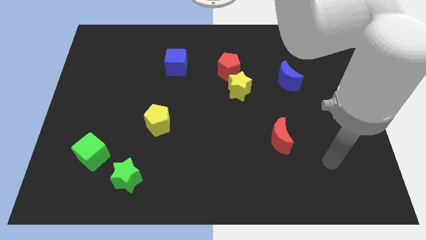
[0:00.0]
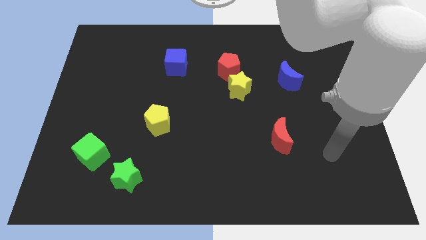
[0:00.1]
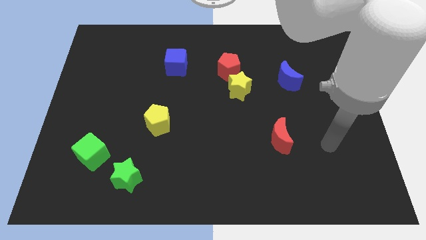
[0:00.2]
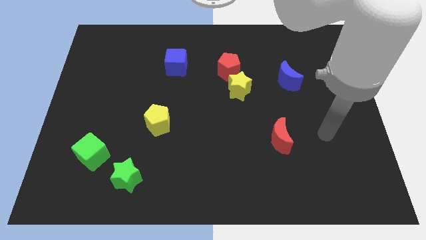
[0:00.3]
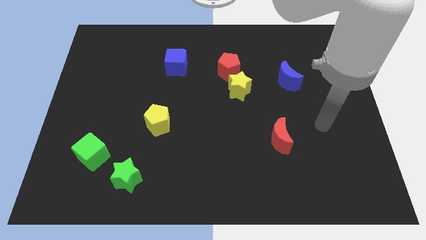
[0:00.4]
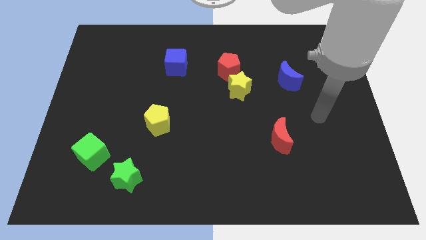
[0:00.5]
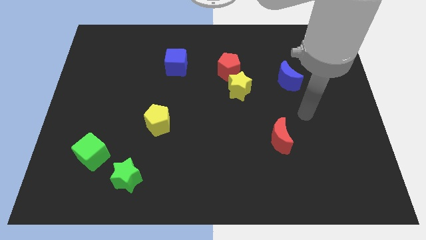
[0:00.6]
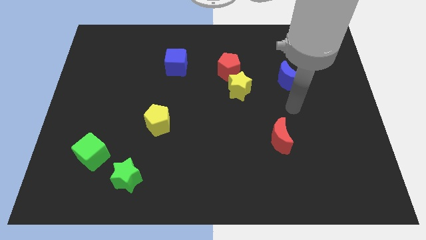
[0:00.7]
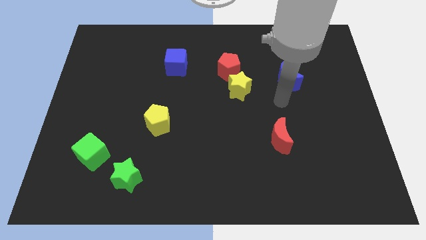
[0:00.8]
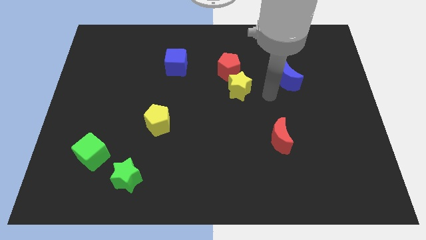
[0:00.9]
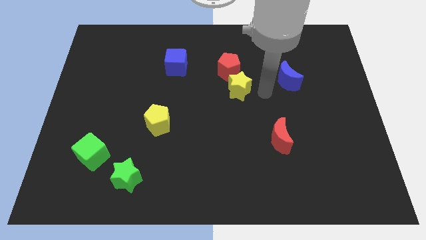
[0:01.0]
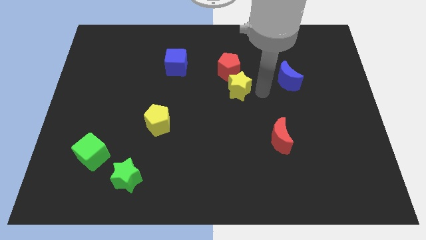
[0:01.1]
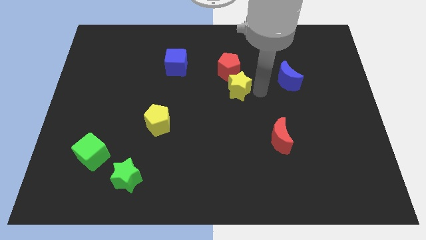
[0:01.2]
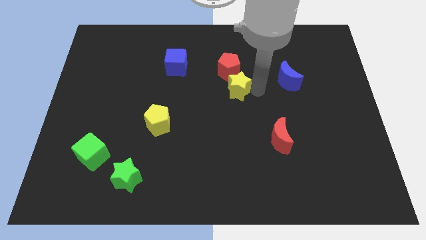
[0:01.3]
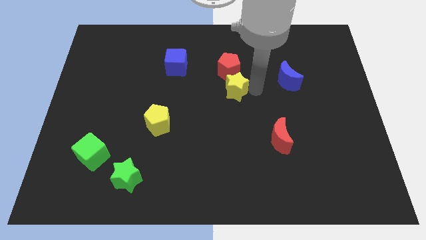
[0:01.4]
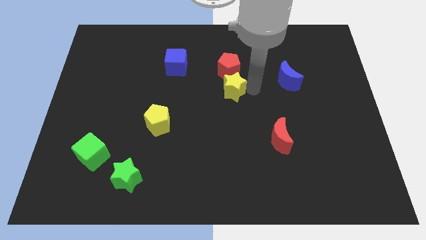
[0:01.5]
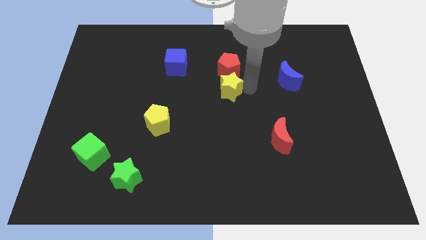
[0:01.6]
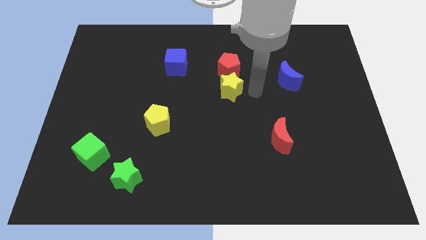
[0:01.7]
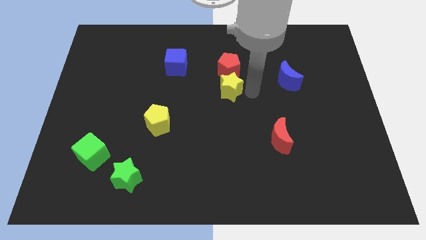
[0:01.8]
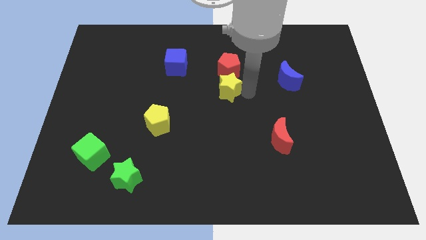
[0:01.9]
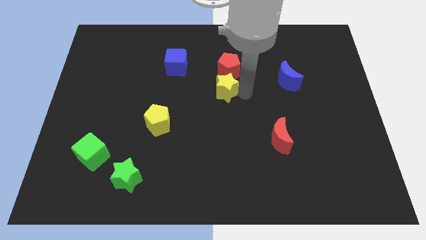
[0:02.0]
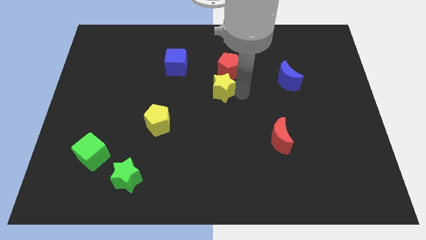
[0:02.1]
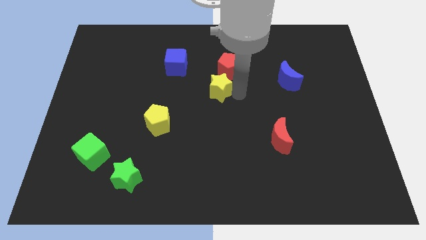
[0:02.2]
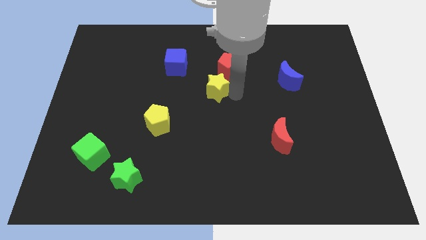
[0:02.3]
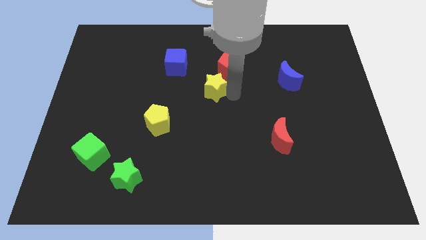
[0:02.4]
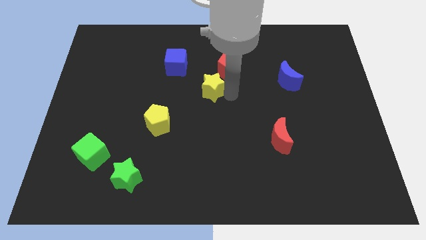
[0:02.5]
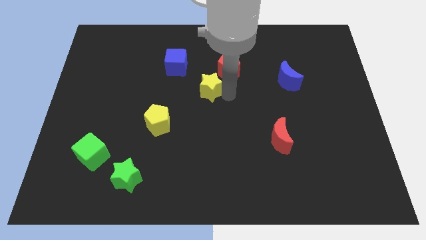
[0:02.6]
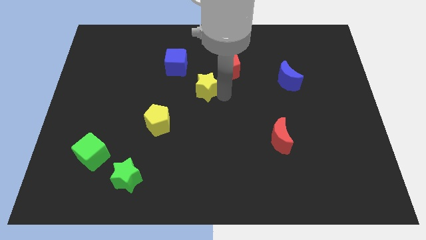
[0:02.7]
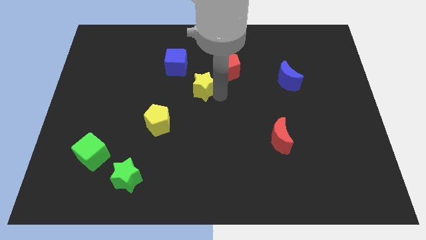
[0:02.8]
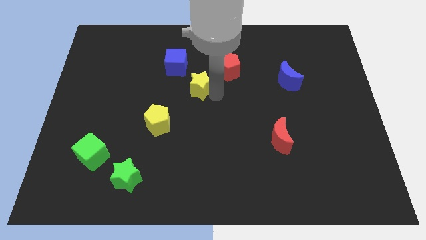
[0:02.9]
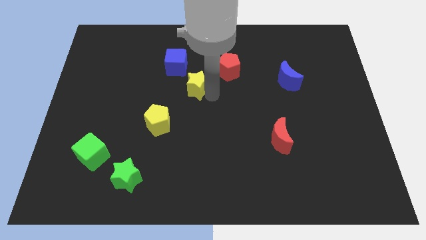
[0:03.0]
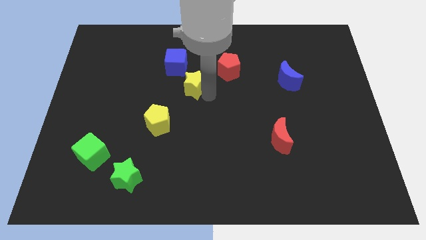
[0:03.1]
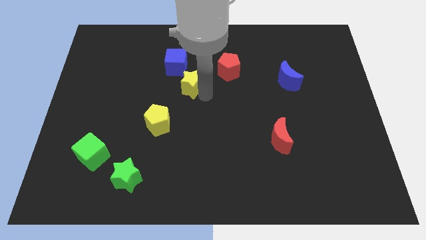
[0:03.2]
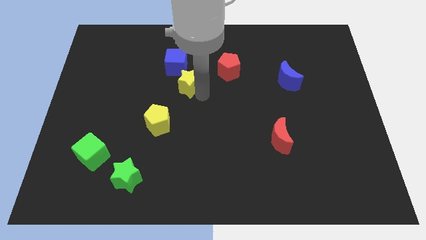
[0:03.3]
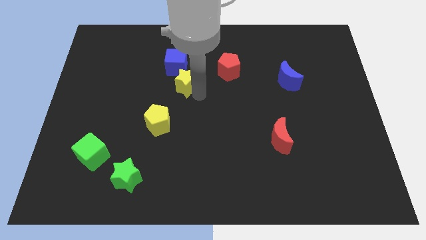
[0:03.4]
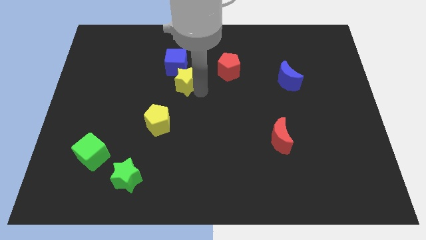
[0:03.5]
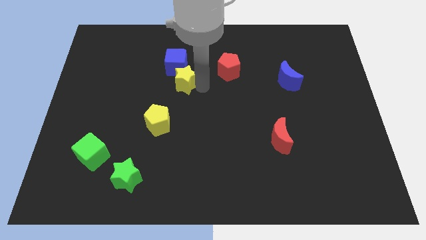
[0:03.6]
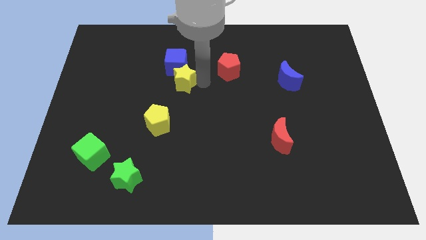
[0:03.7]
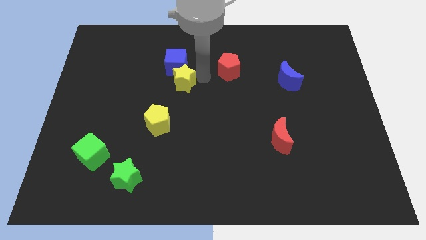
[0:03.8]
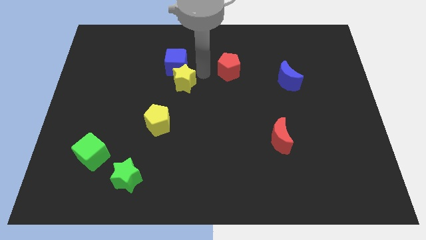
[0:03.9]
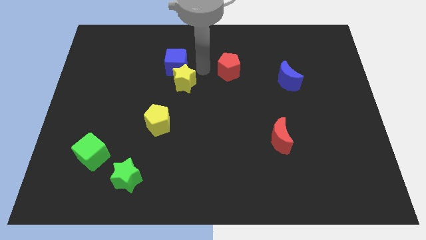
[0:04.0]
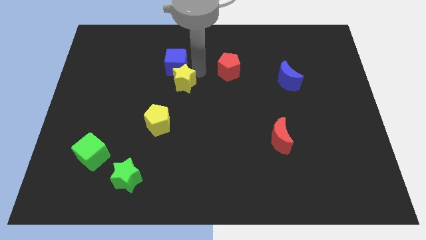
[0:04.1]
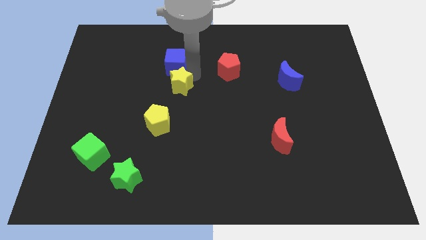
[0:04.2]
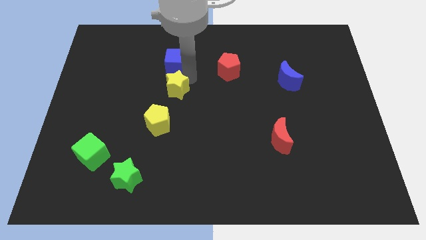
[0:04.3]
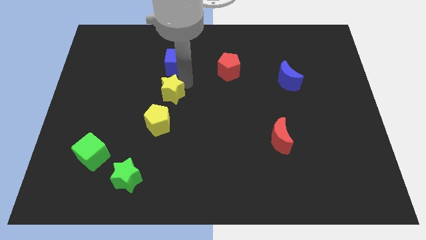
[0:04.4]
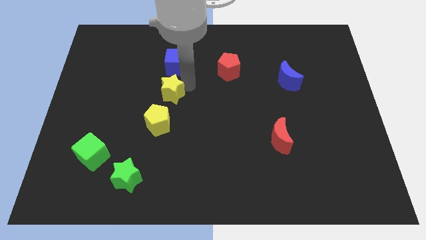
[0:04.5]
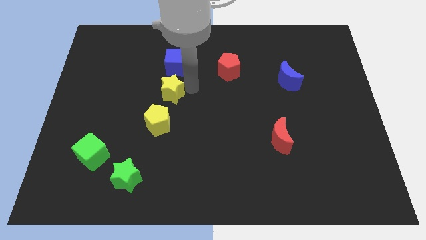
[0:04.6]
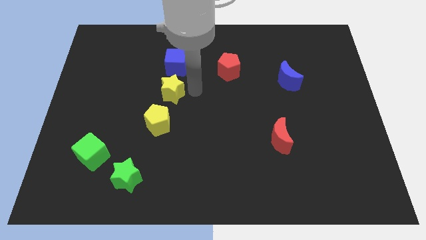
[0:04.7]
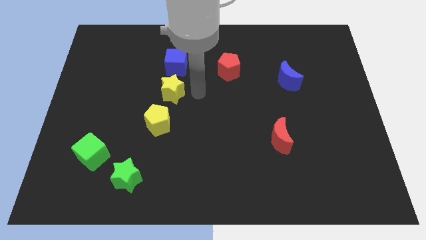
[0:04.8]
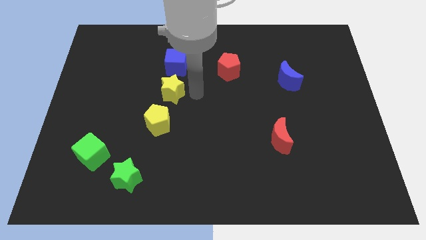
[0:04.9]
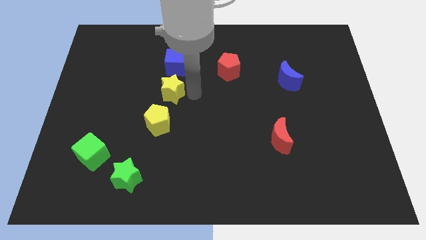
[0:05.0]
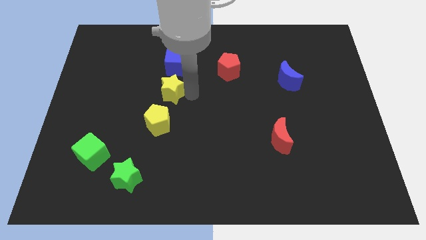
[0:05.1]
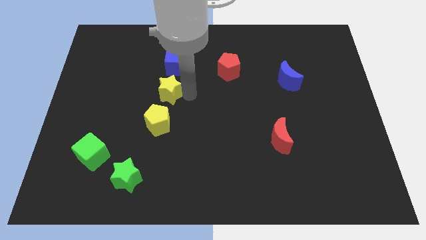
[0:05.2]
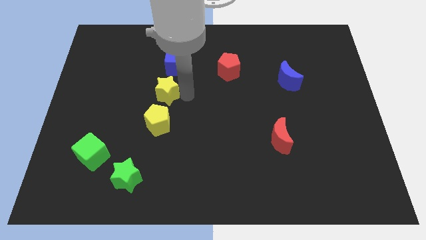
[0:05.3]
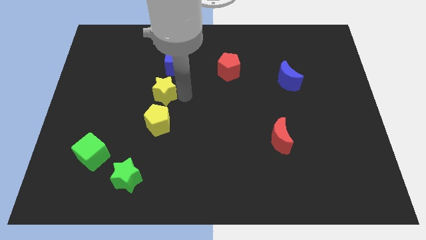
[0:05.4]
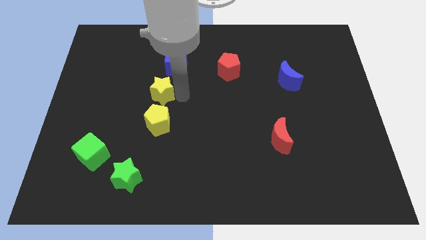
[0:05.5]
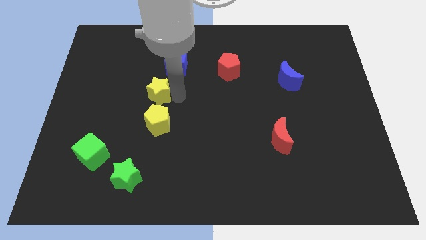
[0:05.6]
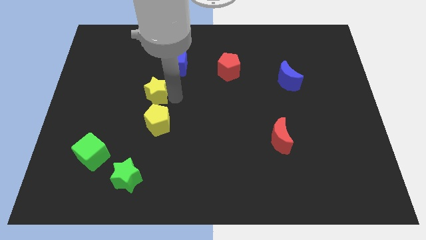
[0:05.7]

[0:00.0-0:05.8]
slide the yellow star to the left

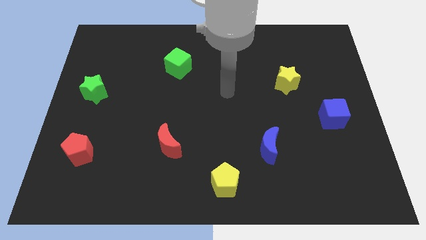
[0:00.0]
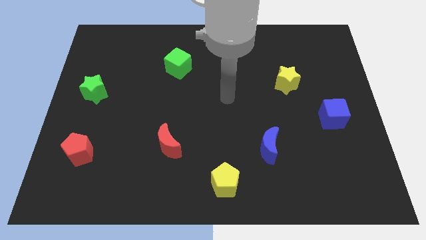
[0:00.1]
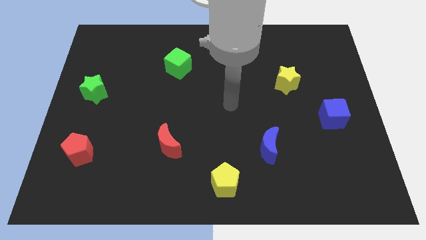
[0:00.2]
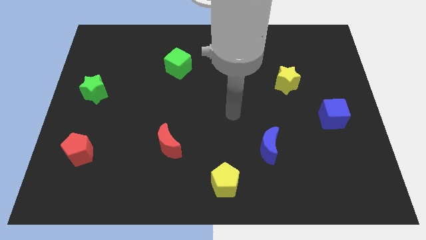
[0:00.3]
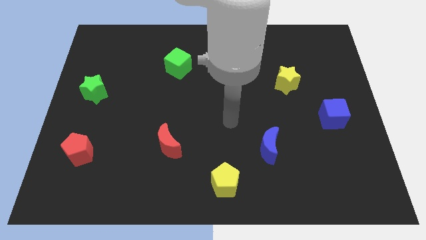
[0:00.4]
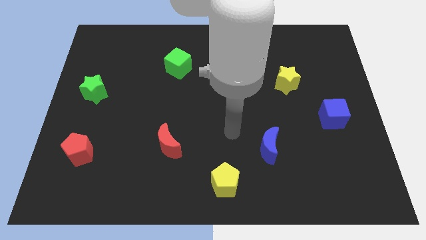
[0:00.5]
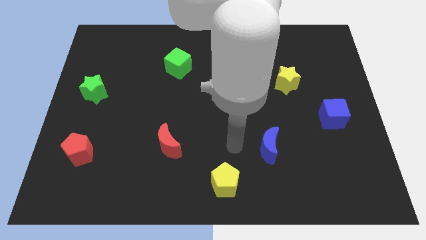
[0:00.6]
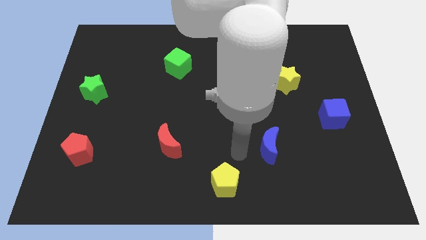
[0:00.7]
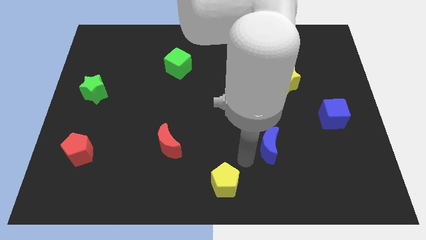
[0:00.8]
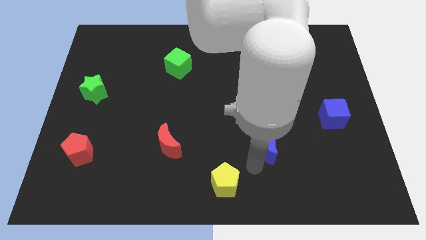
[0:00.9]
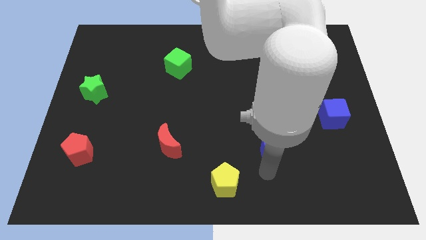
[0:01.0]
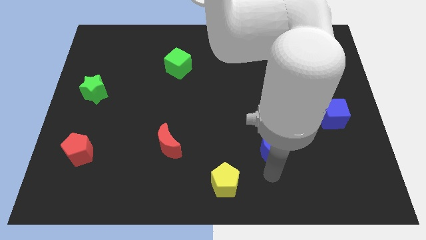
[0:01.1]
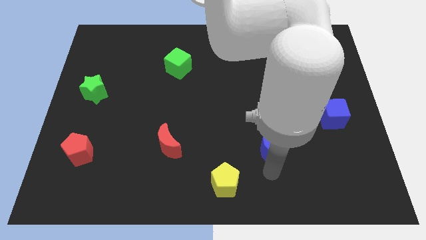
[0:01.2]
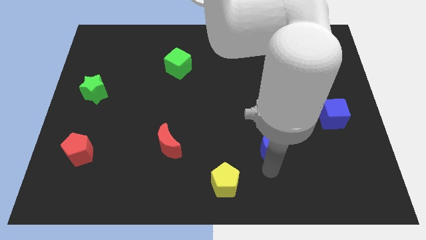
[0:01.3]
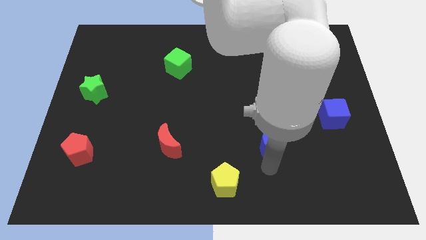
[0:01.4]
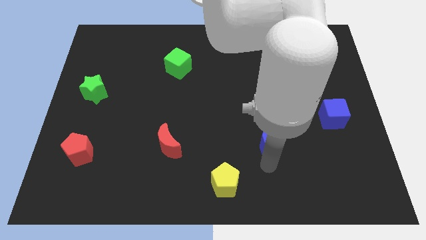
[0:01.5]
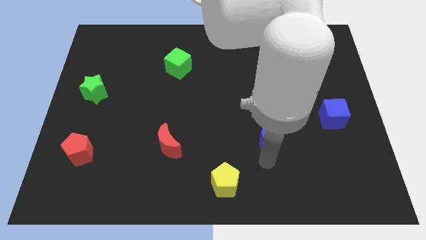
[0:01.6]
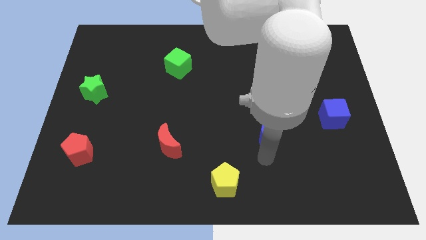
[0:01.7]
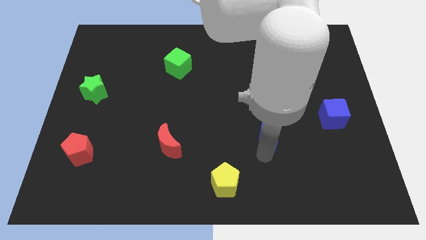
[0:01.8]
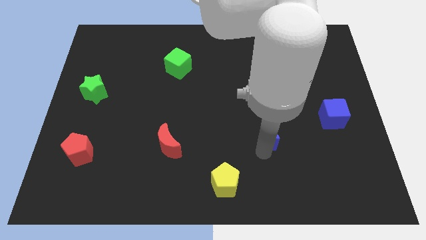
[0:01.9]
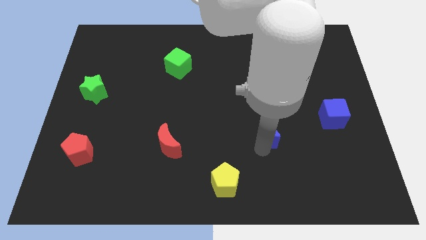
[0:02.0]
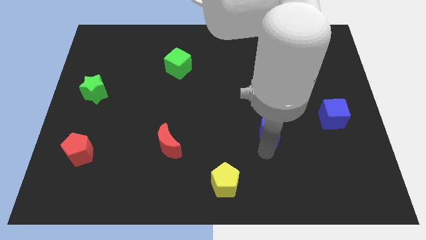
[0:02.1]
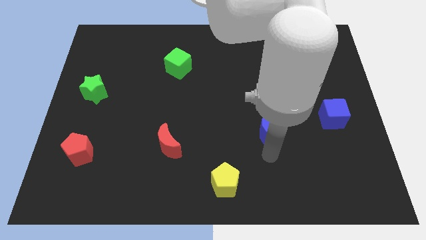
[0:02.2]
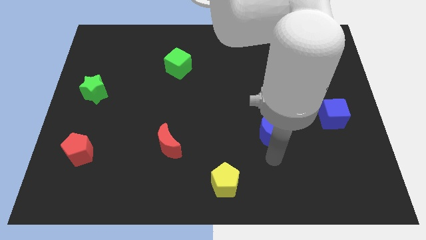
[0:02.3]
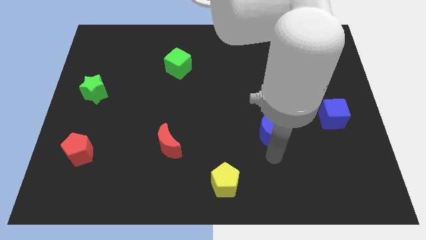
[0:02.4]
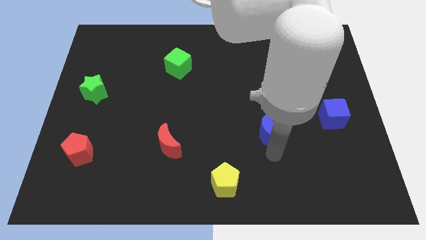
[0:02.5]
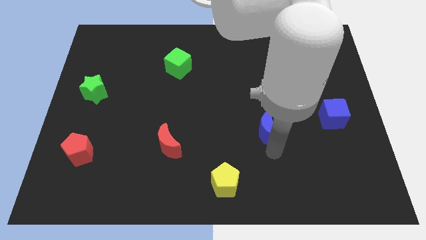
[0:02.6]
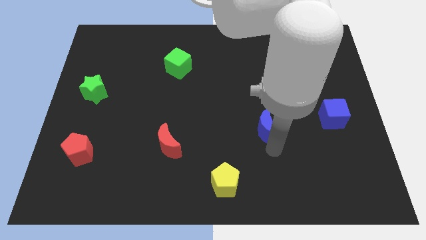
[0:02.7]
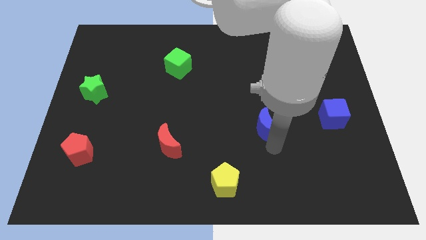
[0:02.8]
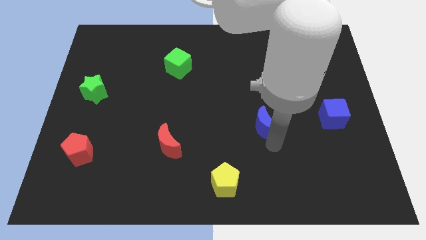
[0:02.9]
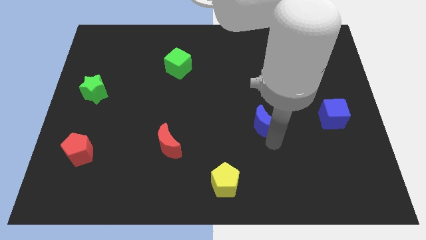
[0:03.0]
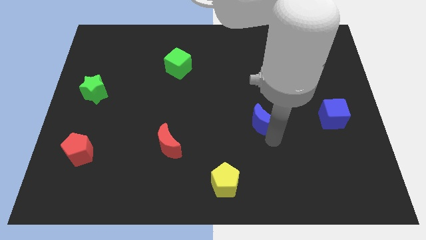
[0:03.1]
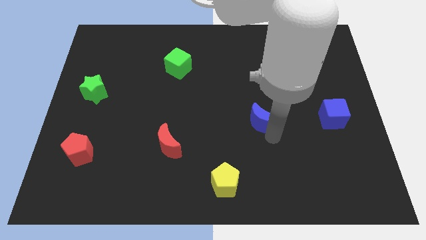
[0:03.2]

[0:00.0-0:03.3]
move the blue moon a little upwards
